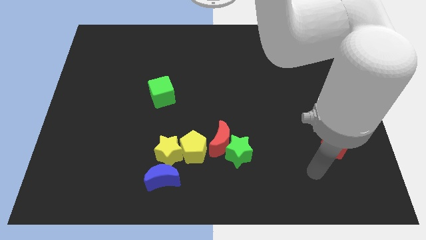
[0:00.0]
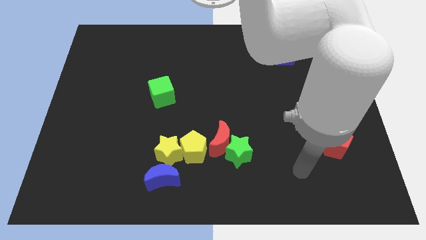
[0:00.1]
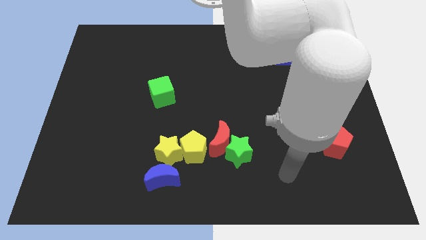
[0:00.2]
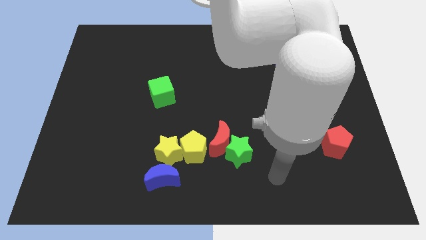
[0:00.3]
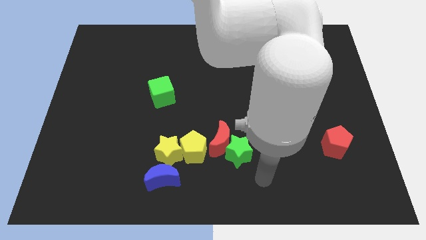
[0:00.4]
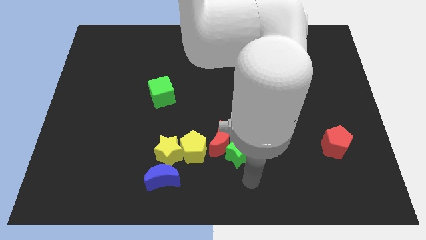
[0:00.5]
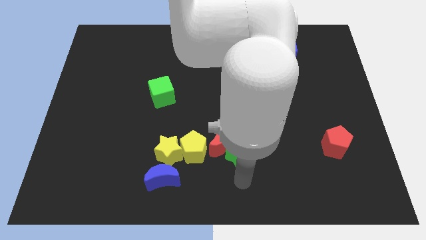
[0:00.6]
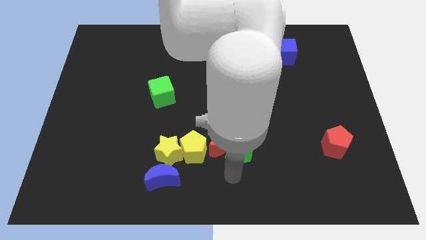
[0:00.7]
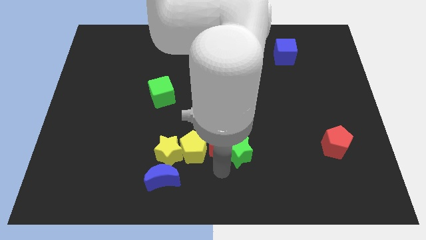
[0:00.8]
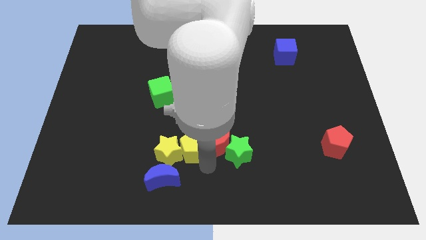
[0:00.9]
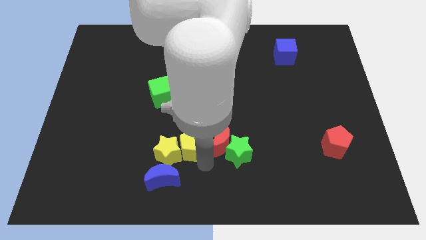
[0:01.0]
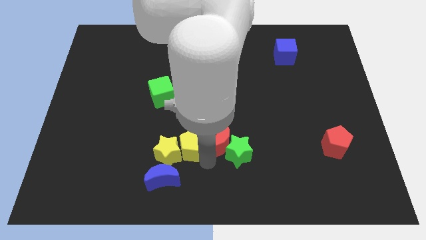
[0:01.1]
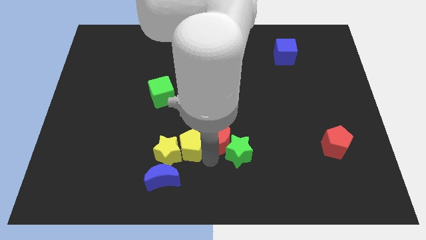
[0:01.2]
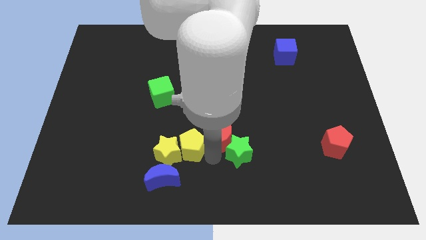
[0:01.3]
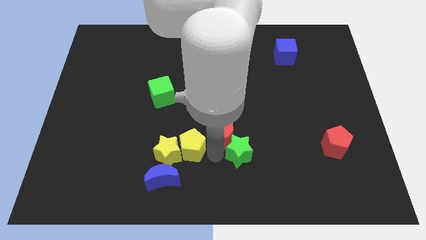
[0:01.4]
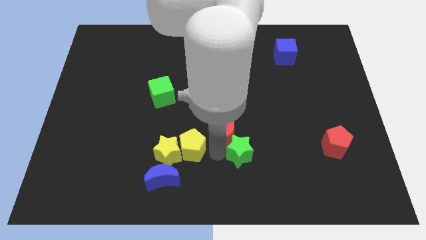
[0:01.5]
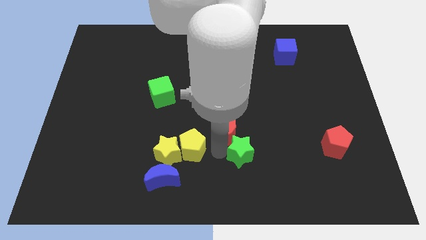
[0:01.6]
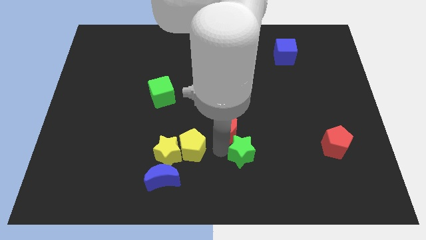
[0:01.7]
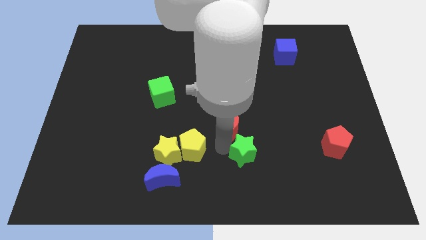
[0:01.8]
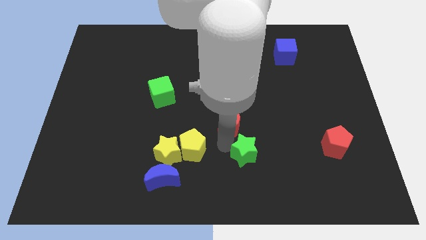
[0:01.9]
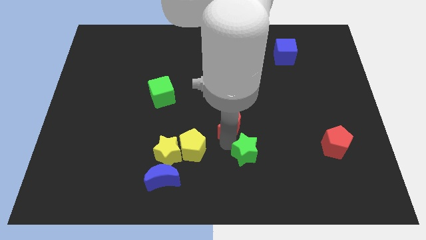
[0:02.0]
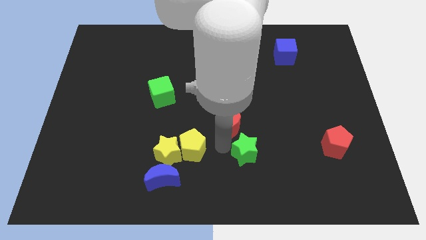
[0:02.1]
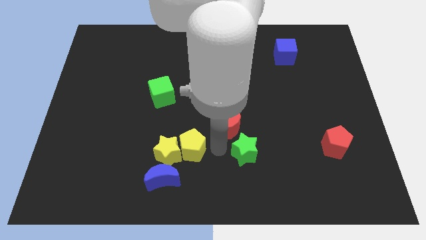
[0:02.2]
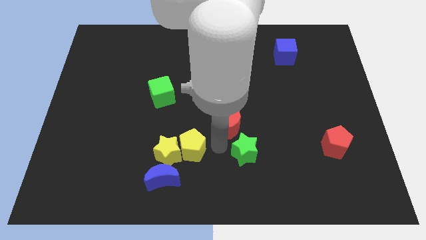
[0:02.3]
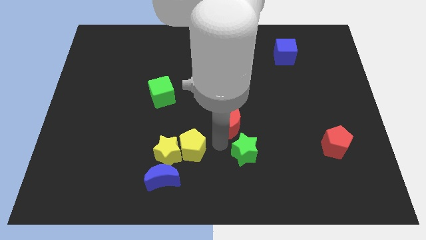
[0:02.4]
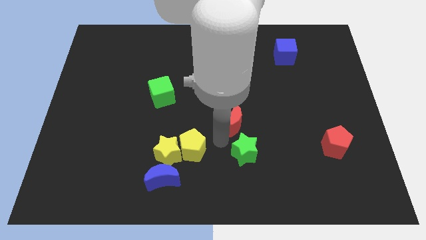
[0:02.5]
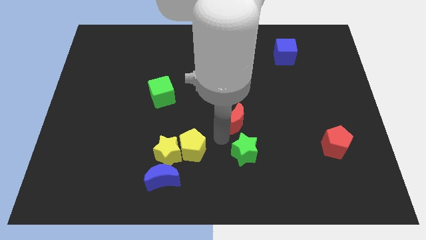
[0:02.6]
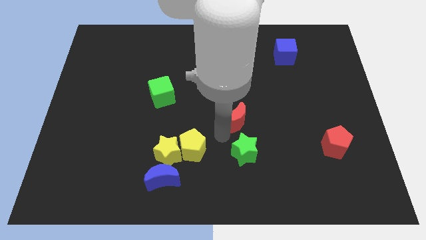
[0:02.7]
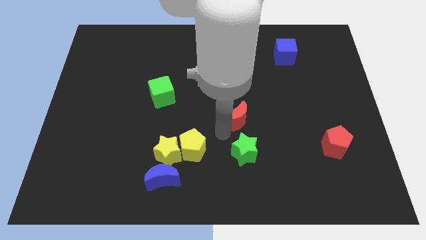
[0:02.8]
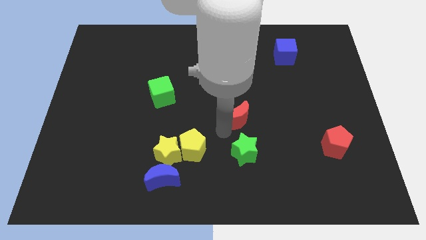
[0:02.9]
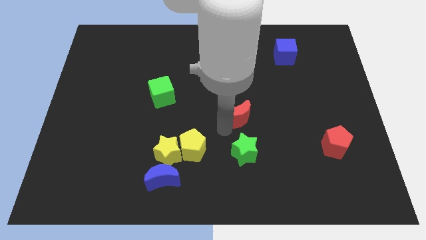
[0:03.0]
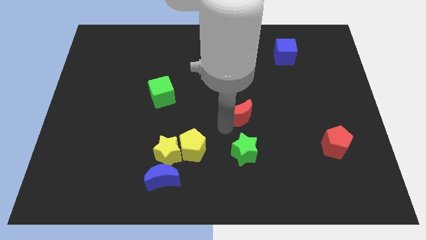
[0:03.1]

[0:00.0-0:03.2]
separate the red moon from the green star and yellow pentagon

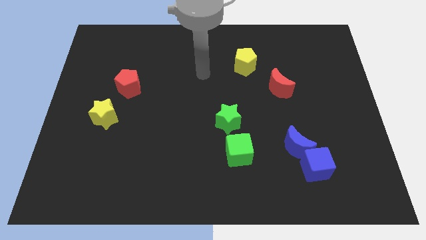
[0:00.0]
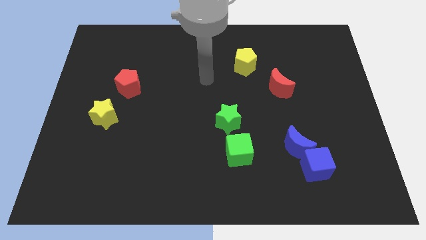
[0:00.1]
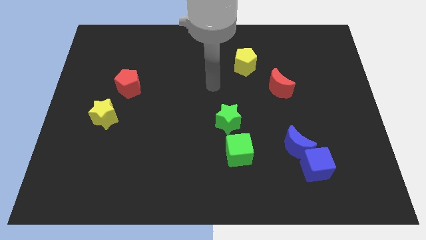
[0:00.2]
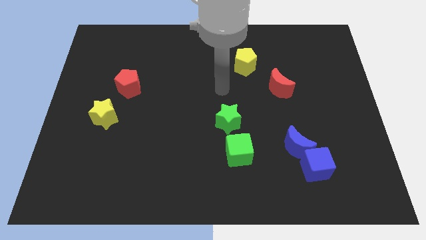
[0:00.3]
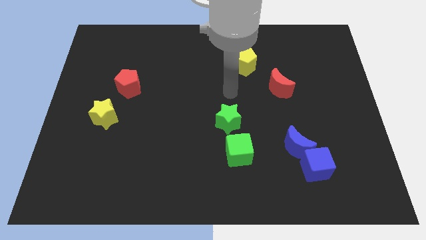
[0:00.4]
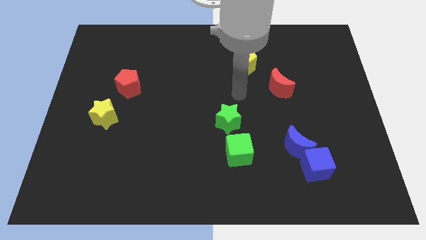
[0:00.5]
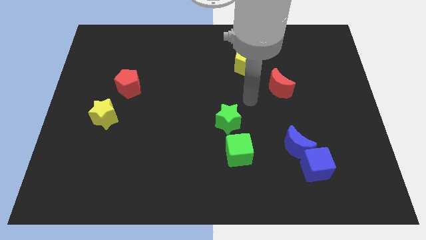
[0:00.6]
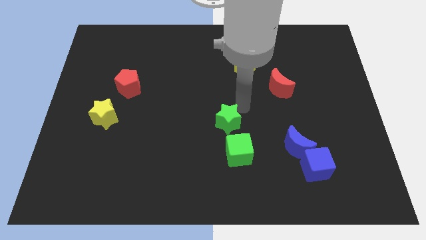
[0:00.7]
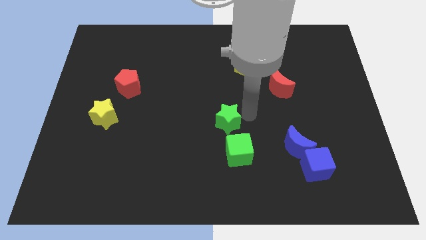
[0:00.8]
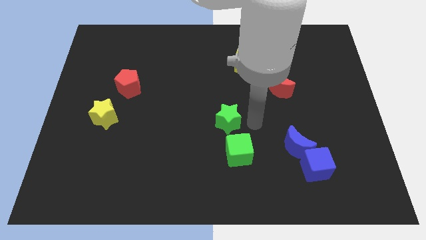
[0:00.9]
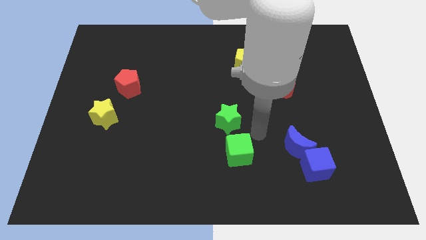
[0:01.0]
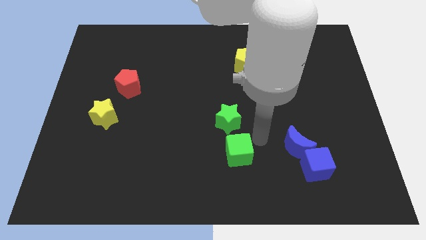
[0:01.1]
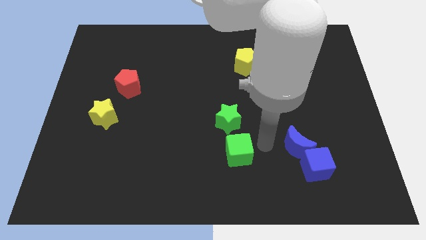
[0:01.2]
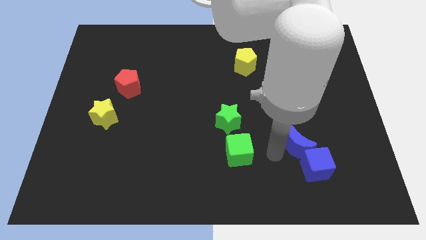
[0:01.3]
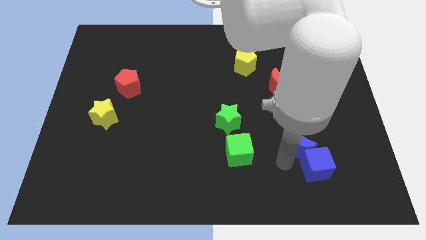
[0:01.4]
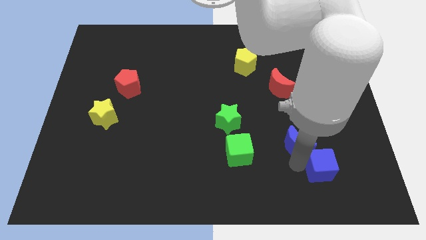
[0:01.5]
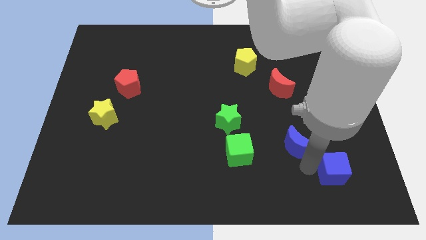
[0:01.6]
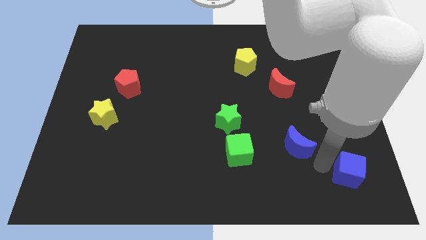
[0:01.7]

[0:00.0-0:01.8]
move the blue moon away from the blue cube

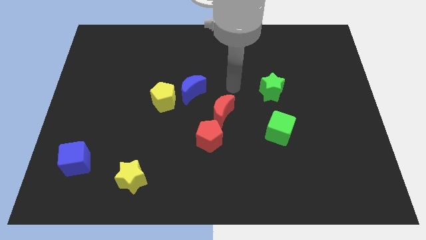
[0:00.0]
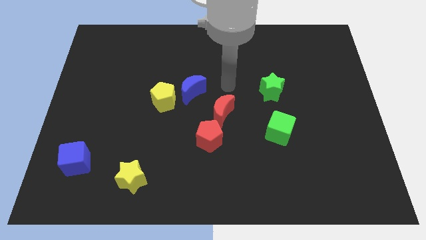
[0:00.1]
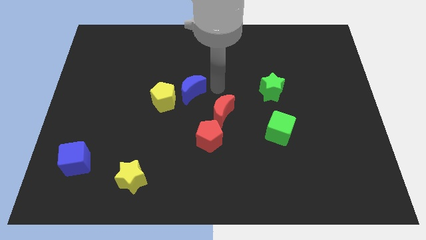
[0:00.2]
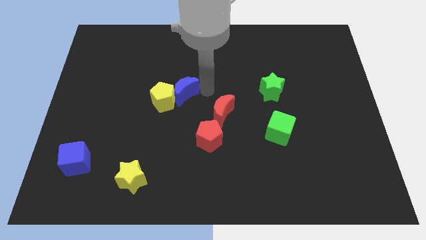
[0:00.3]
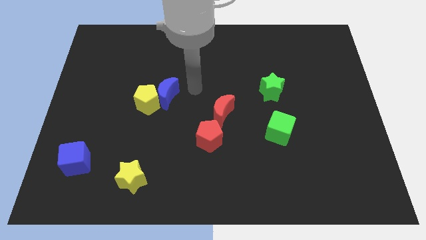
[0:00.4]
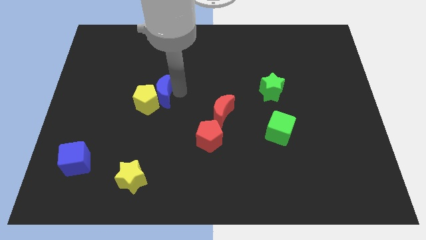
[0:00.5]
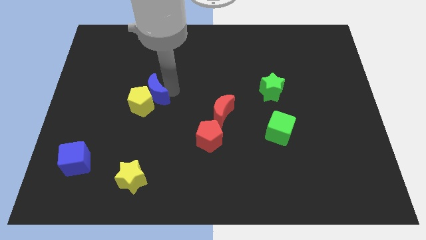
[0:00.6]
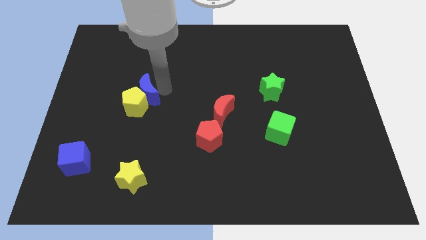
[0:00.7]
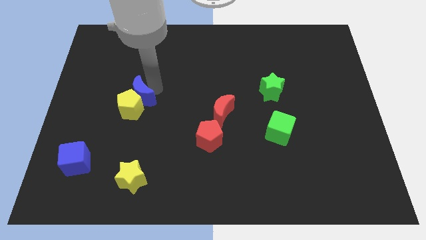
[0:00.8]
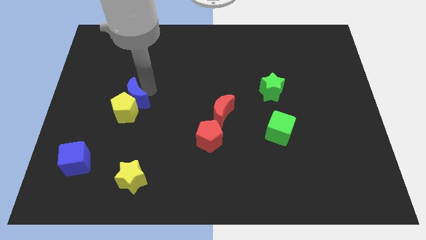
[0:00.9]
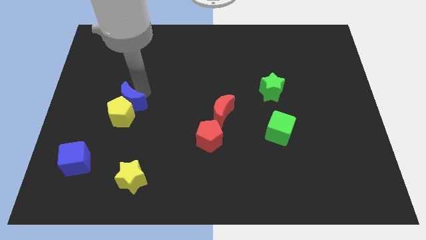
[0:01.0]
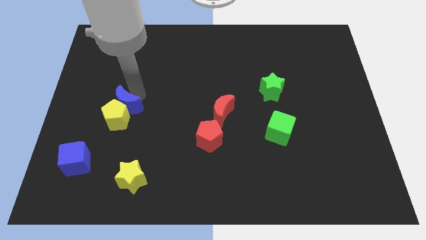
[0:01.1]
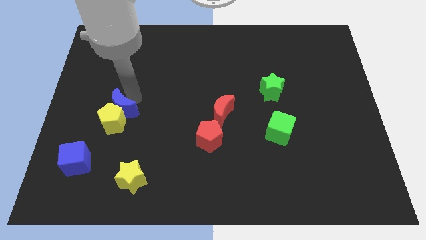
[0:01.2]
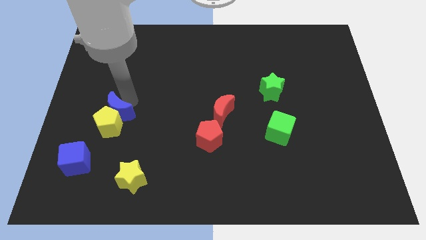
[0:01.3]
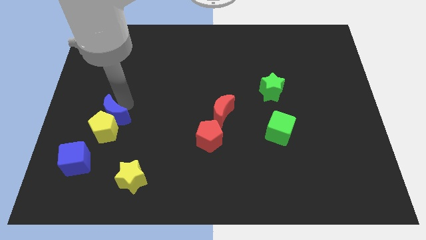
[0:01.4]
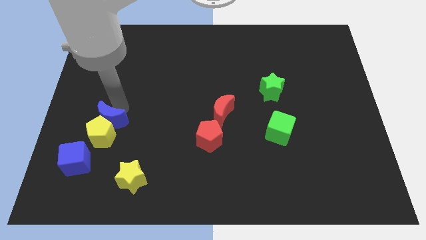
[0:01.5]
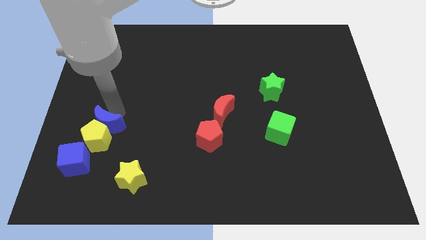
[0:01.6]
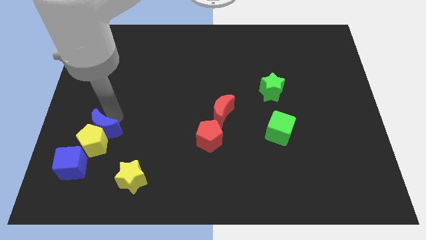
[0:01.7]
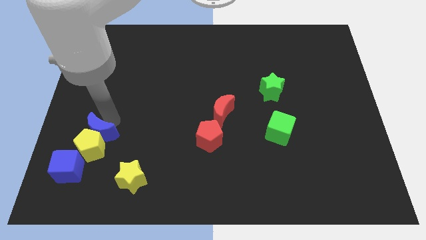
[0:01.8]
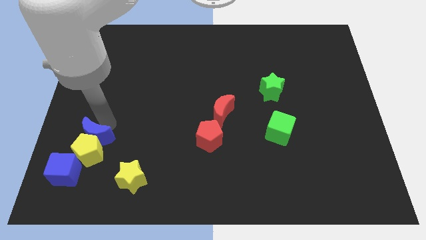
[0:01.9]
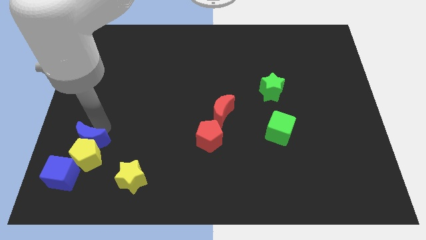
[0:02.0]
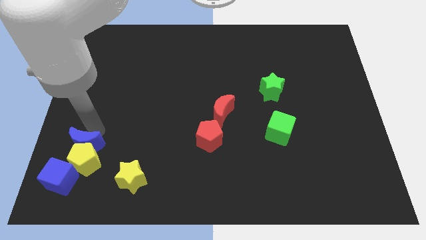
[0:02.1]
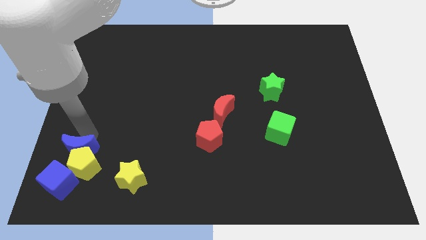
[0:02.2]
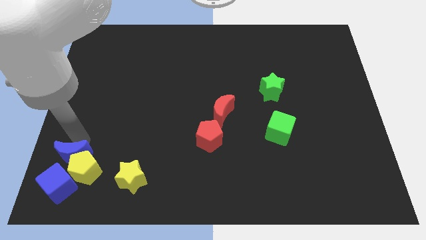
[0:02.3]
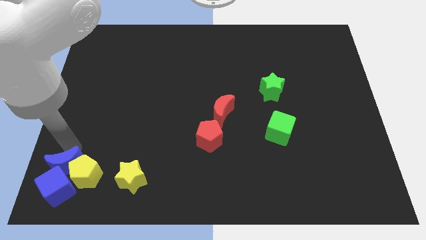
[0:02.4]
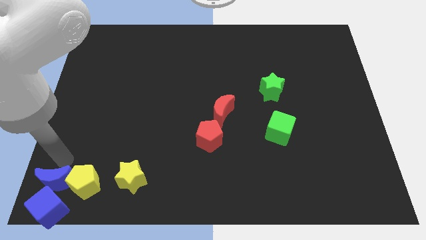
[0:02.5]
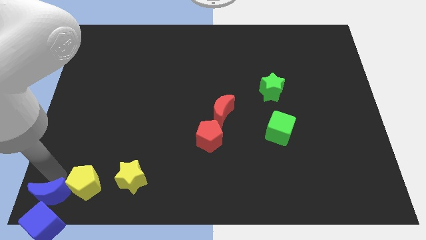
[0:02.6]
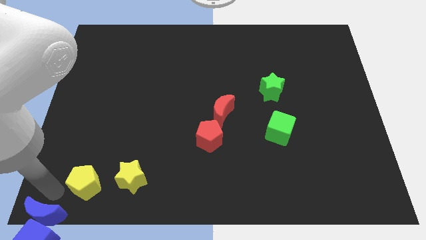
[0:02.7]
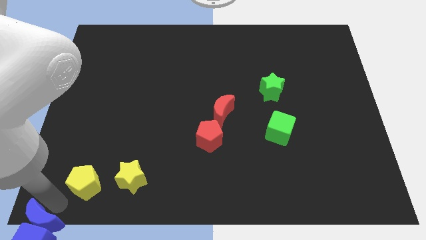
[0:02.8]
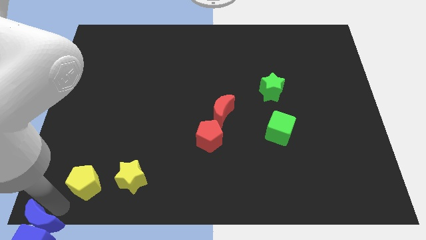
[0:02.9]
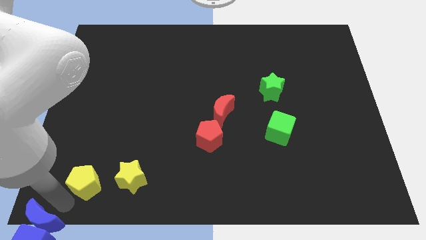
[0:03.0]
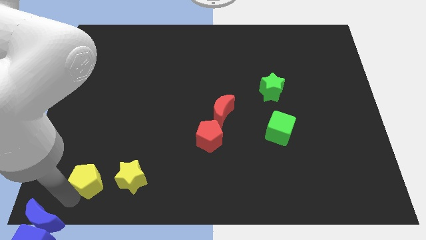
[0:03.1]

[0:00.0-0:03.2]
move the yellow pentagon away from the blue moon

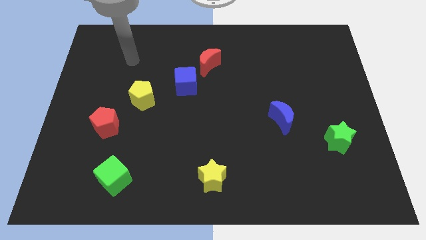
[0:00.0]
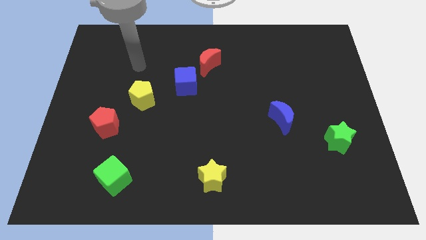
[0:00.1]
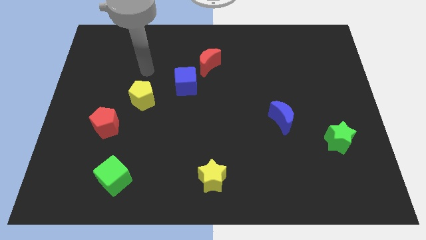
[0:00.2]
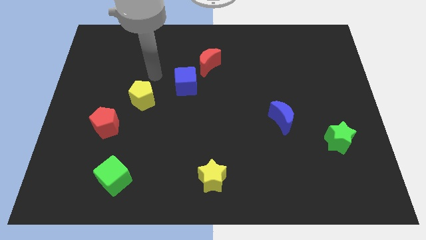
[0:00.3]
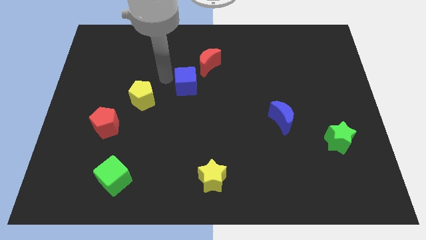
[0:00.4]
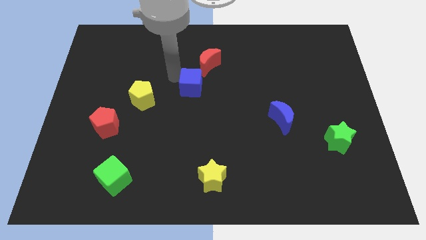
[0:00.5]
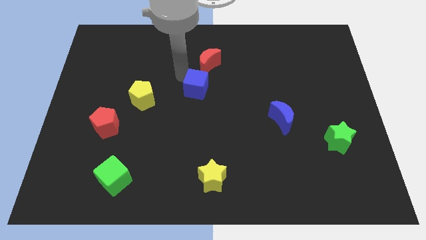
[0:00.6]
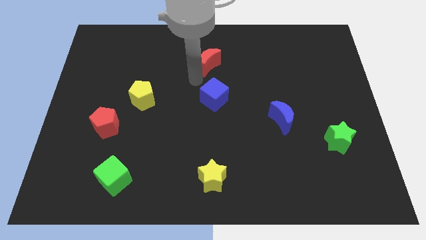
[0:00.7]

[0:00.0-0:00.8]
move the red moon away from the blue cube

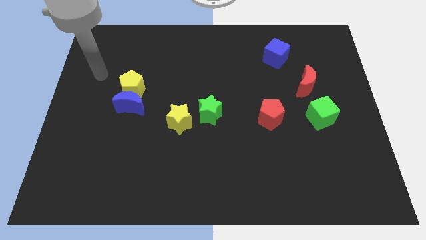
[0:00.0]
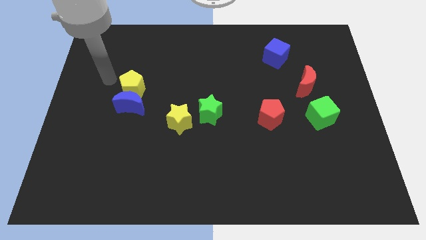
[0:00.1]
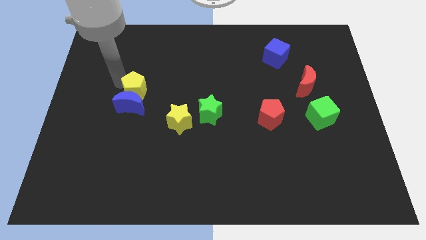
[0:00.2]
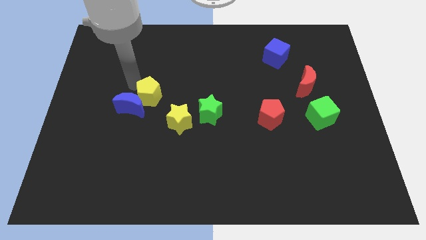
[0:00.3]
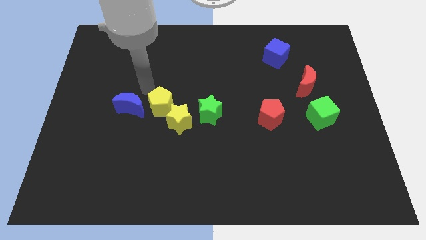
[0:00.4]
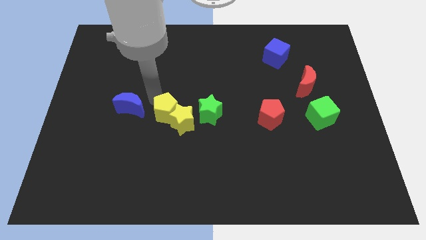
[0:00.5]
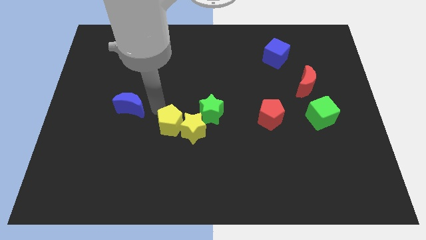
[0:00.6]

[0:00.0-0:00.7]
pull the blue moon apart from the yellow pentagon
